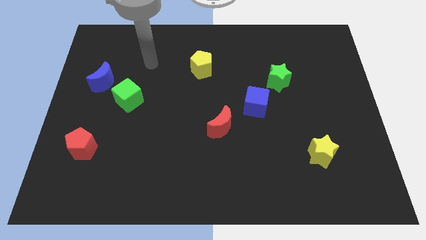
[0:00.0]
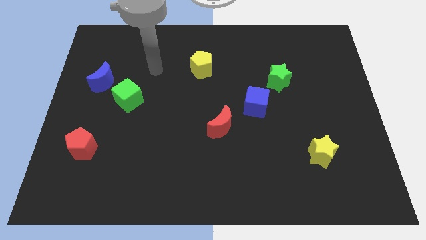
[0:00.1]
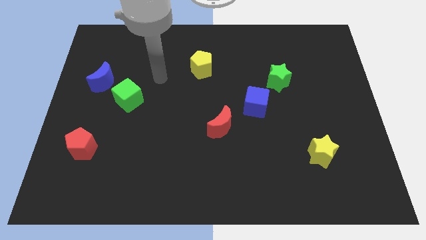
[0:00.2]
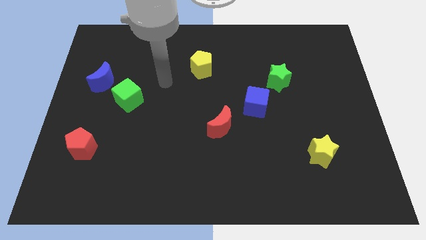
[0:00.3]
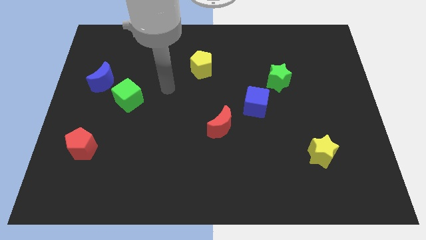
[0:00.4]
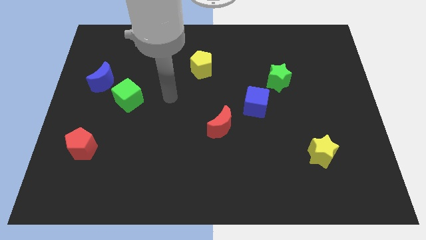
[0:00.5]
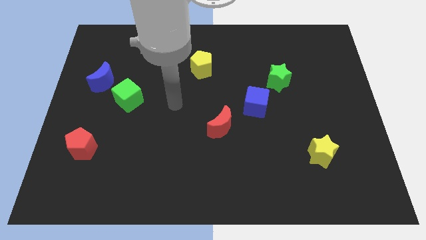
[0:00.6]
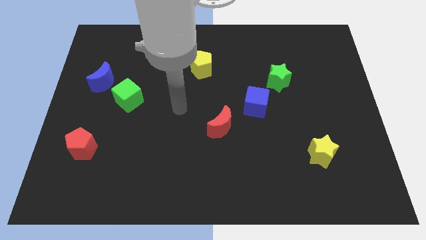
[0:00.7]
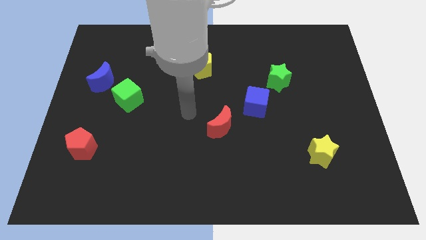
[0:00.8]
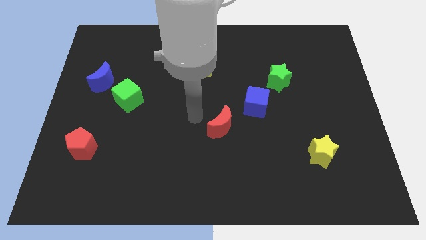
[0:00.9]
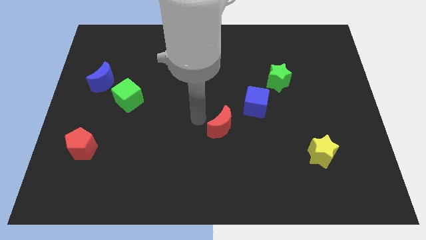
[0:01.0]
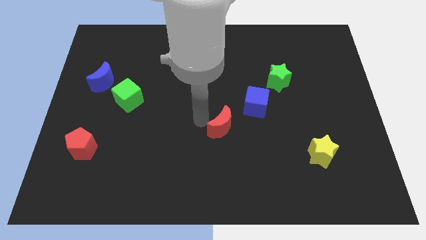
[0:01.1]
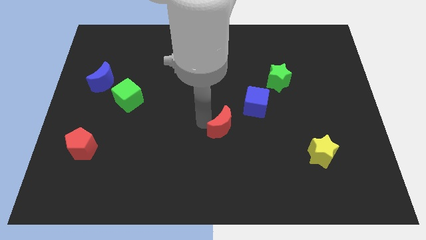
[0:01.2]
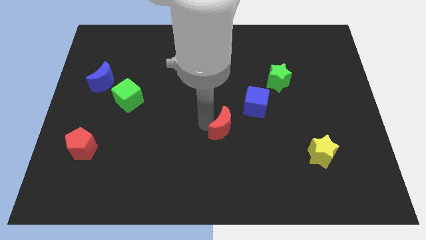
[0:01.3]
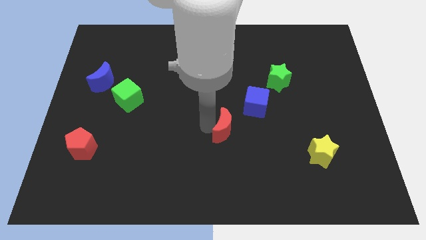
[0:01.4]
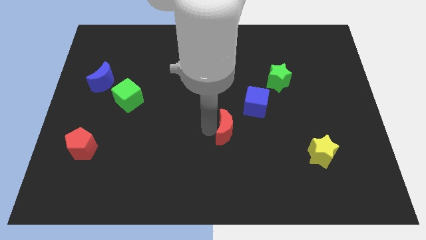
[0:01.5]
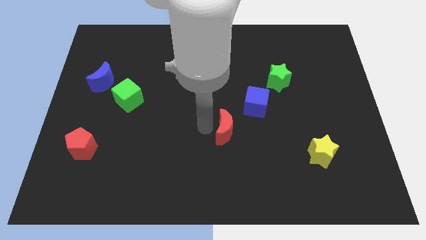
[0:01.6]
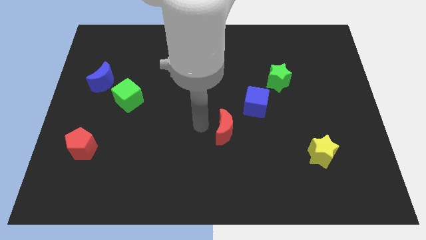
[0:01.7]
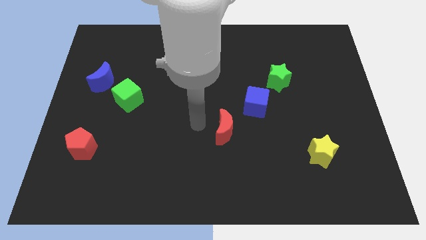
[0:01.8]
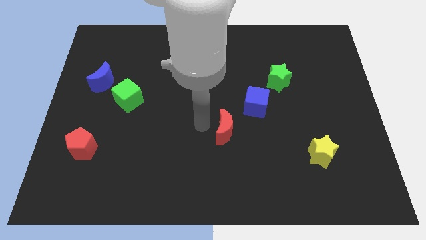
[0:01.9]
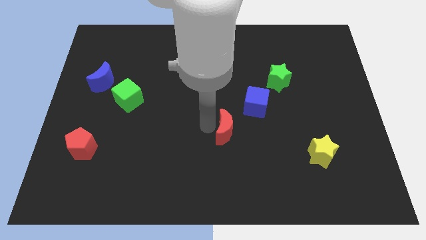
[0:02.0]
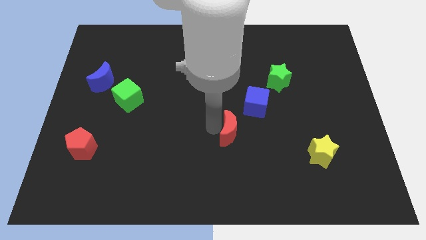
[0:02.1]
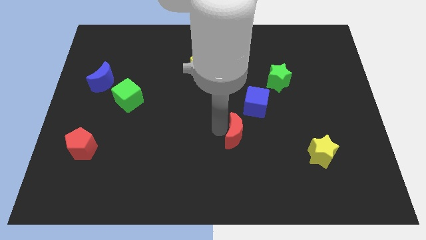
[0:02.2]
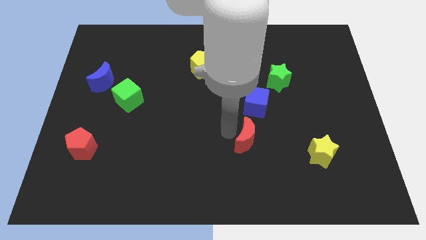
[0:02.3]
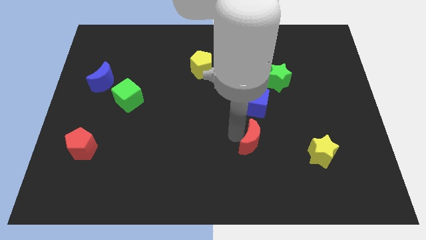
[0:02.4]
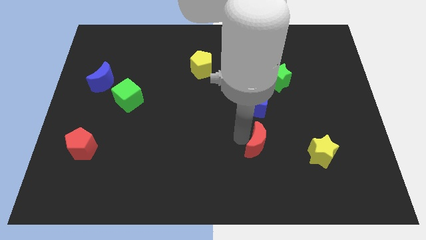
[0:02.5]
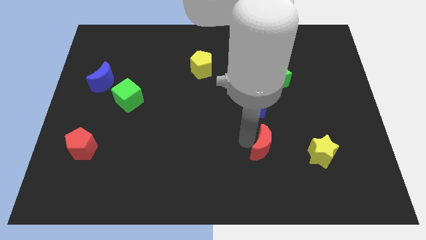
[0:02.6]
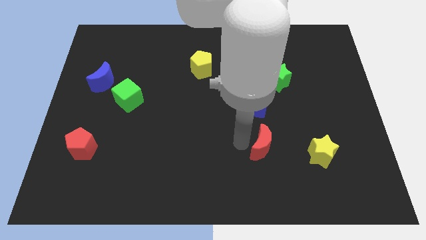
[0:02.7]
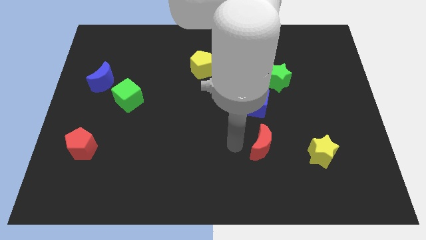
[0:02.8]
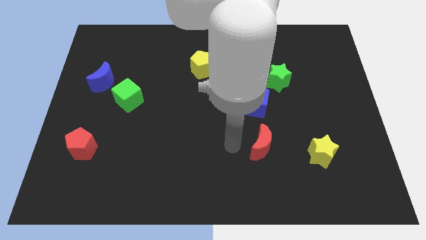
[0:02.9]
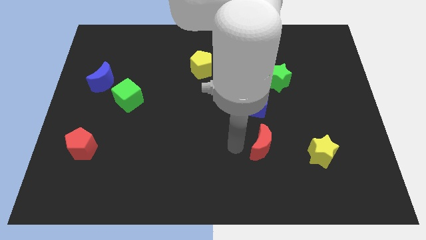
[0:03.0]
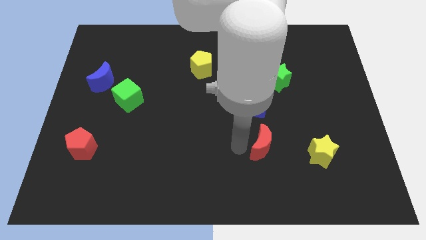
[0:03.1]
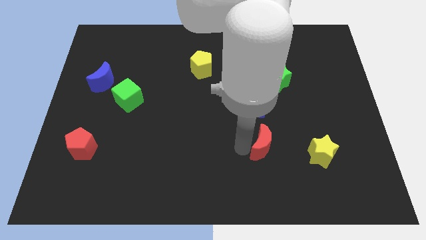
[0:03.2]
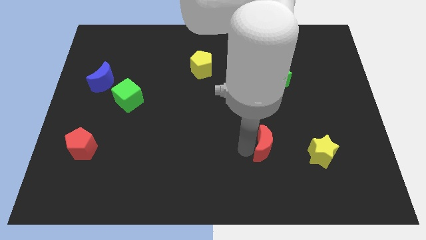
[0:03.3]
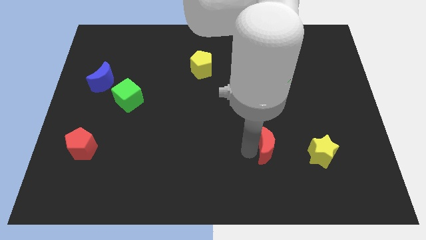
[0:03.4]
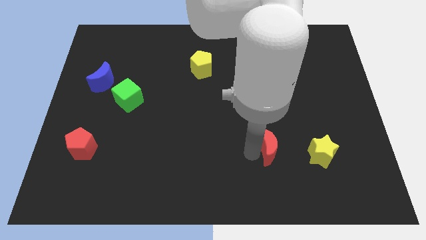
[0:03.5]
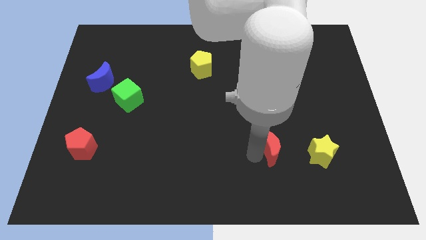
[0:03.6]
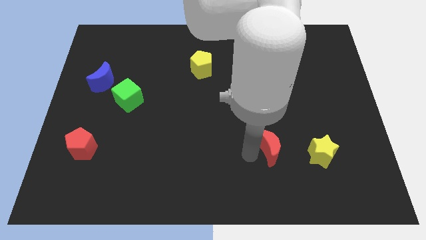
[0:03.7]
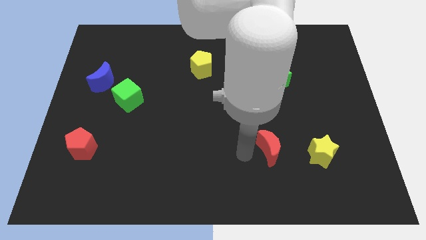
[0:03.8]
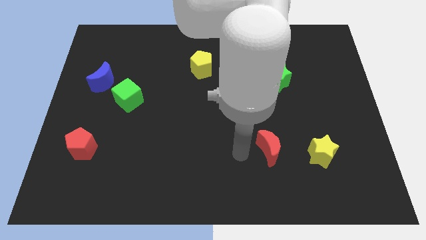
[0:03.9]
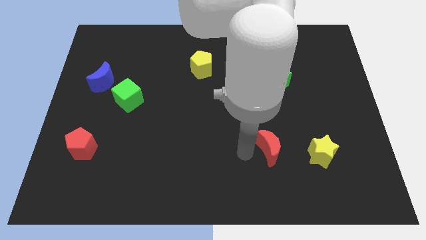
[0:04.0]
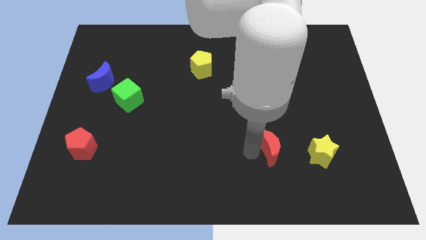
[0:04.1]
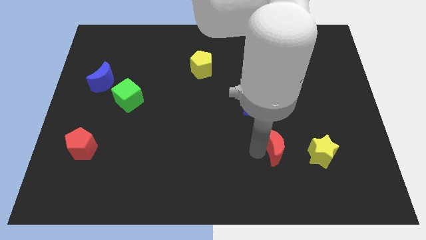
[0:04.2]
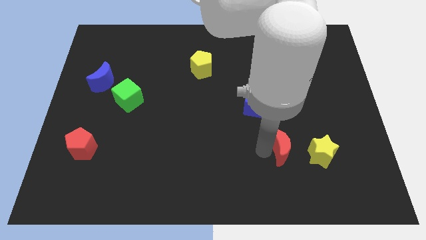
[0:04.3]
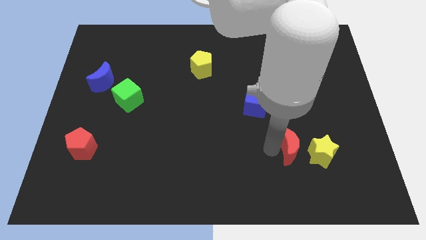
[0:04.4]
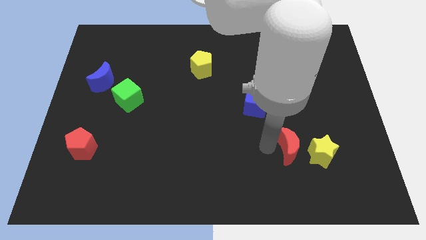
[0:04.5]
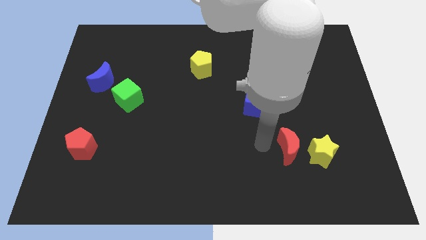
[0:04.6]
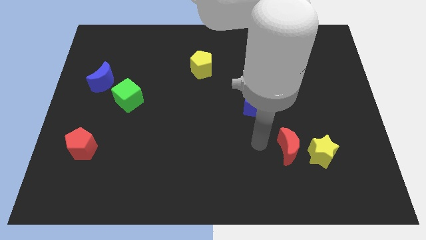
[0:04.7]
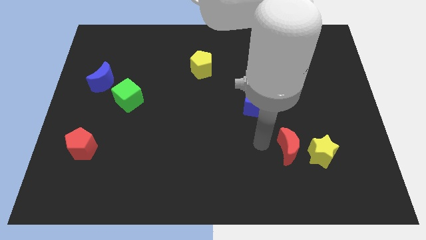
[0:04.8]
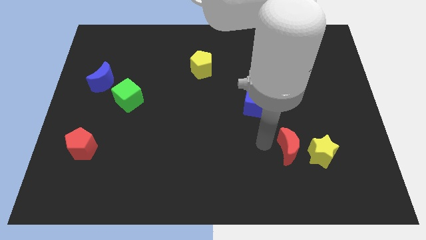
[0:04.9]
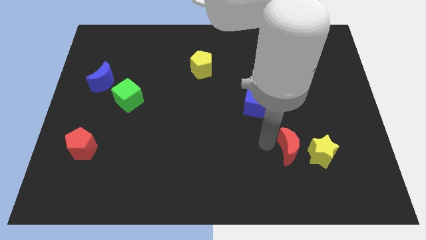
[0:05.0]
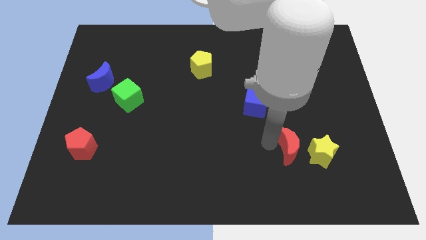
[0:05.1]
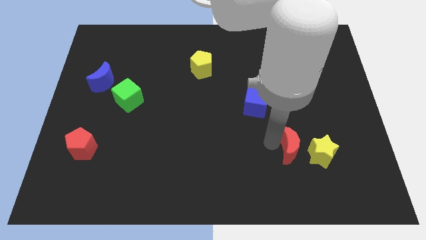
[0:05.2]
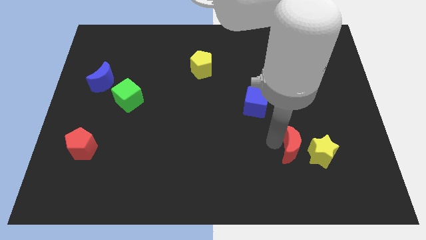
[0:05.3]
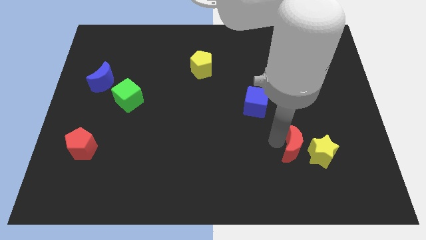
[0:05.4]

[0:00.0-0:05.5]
push the red moon next to the yellow star

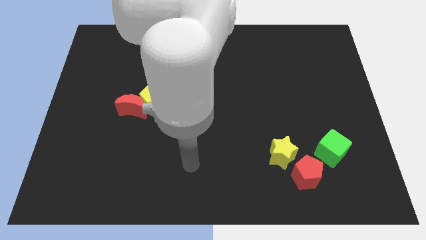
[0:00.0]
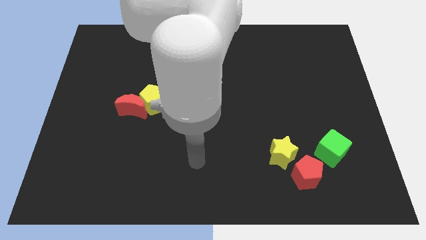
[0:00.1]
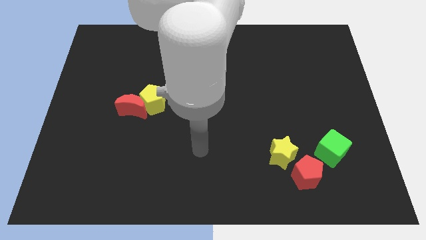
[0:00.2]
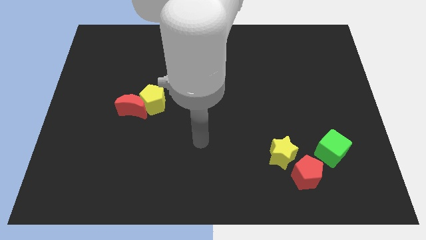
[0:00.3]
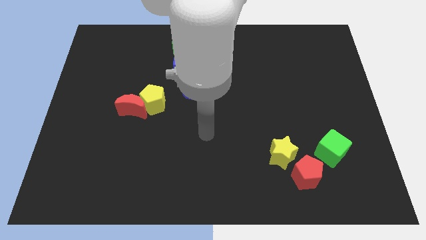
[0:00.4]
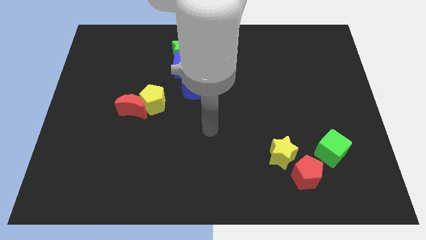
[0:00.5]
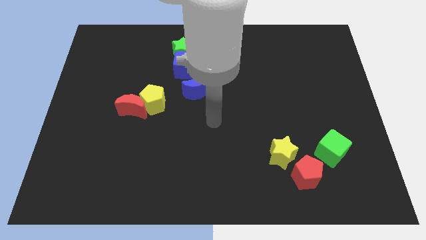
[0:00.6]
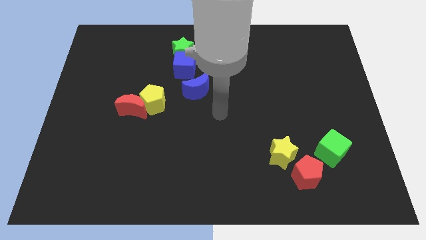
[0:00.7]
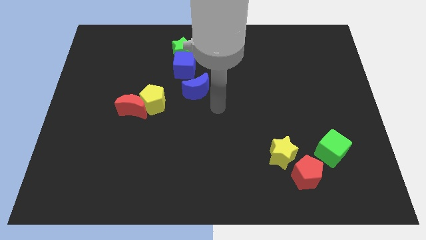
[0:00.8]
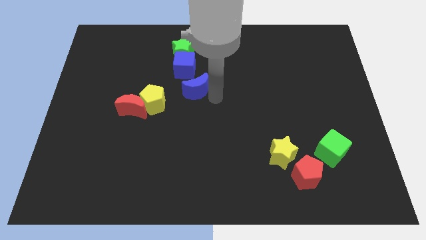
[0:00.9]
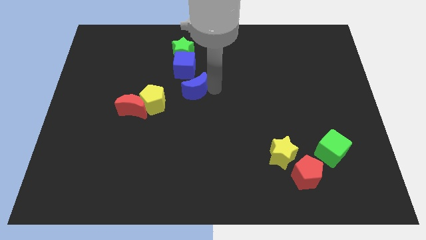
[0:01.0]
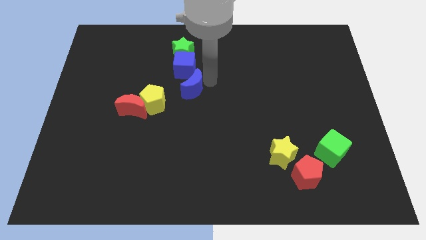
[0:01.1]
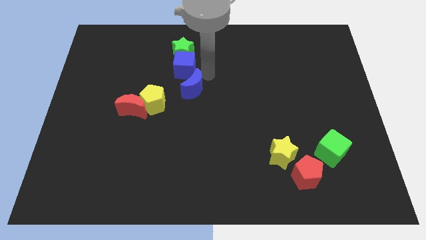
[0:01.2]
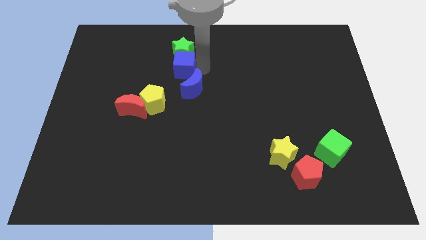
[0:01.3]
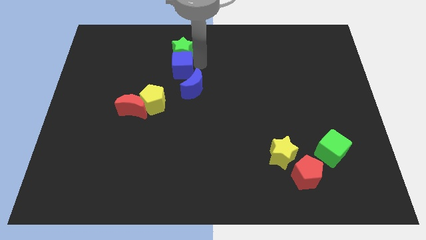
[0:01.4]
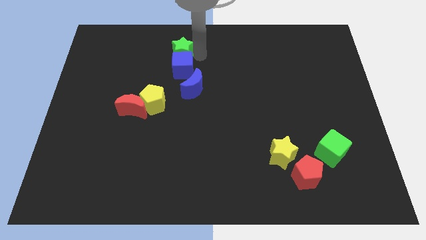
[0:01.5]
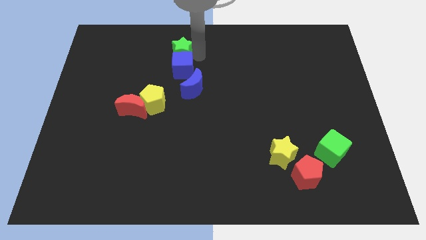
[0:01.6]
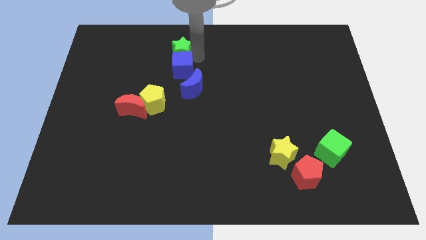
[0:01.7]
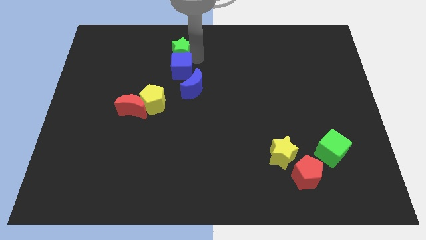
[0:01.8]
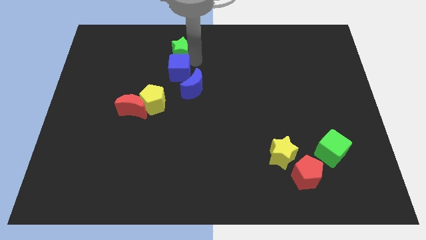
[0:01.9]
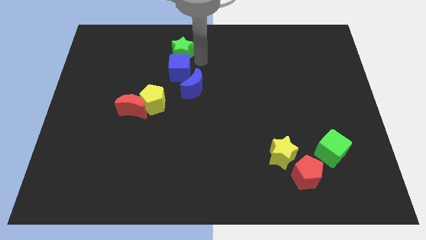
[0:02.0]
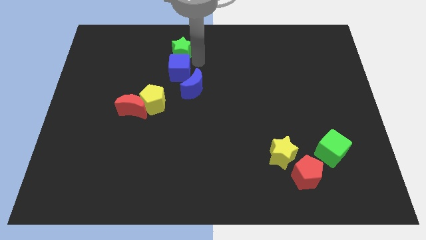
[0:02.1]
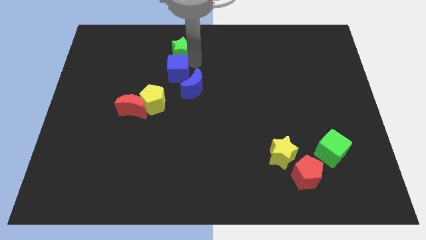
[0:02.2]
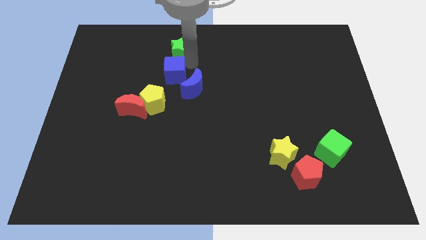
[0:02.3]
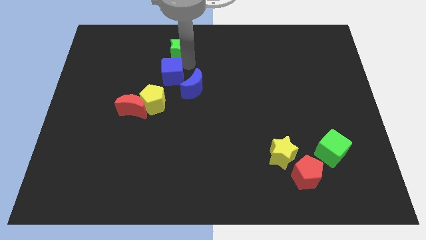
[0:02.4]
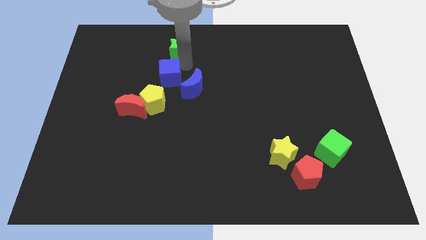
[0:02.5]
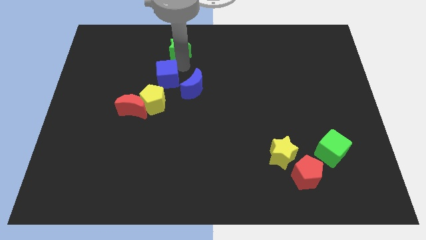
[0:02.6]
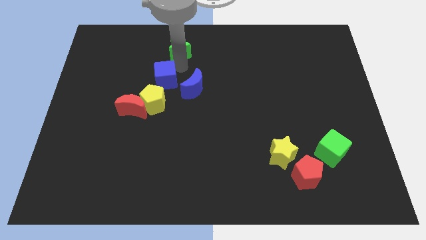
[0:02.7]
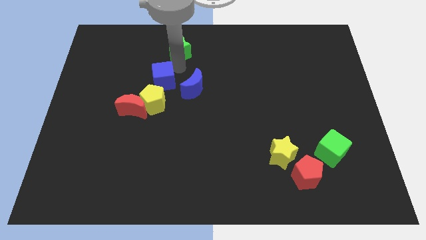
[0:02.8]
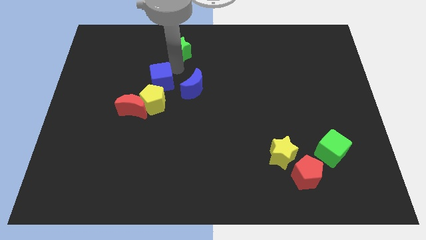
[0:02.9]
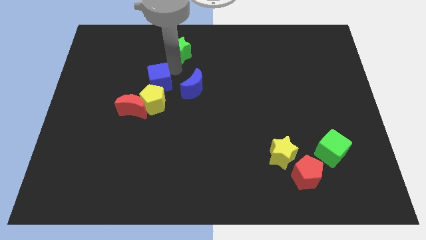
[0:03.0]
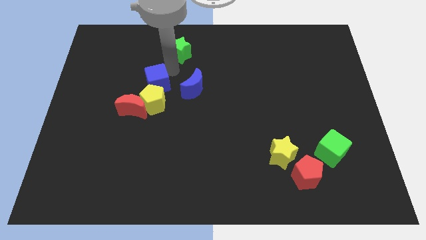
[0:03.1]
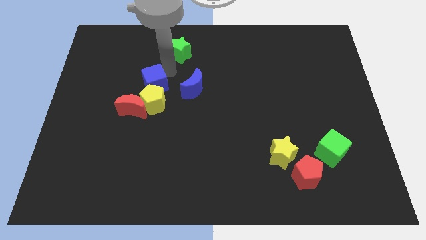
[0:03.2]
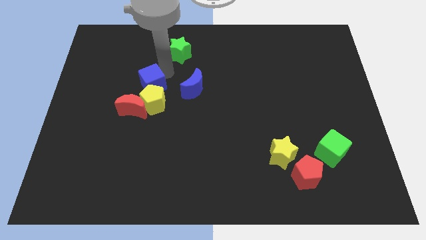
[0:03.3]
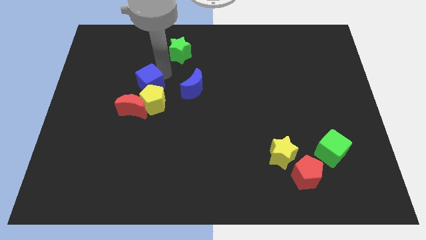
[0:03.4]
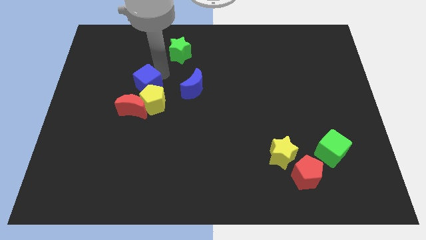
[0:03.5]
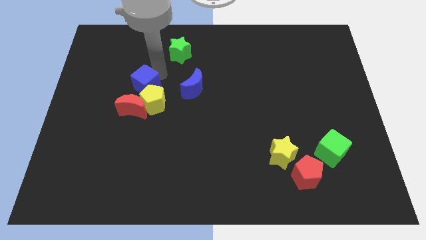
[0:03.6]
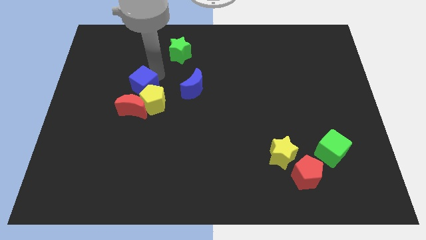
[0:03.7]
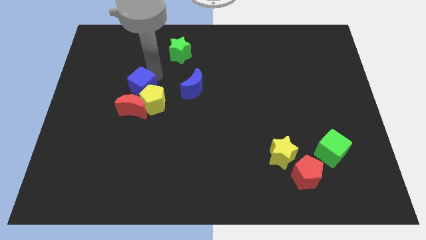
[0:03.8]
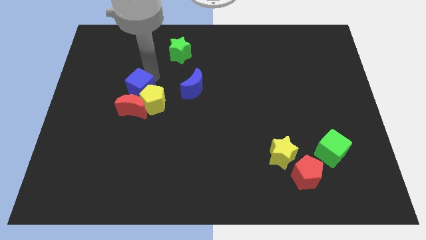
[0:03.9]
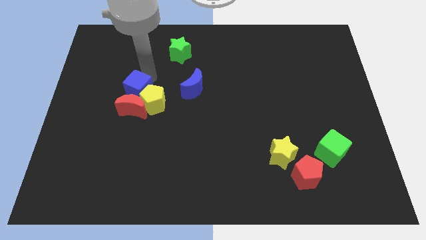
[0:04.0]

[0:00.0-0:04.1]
push the blue cube to the red moon
